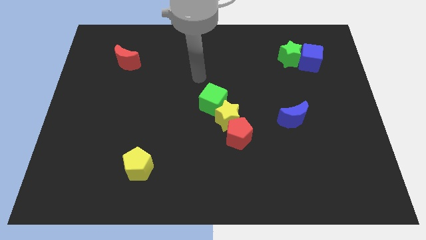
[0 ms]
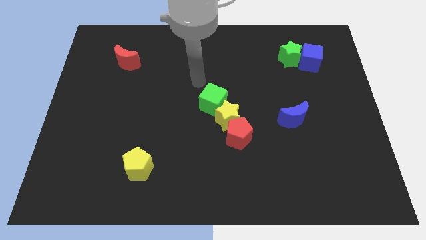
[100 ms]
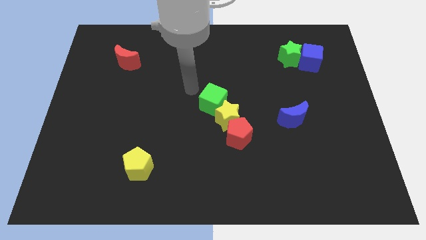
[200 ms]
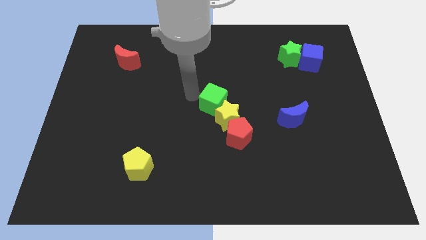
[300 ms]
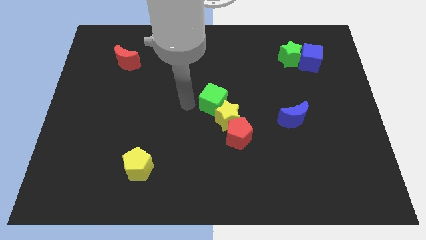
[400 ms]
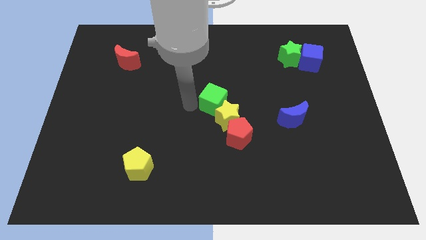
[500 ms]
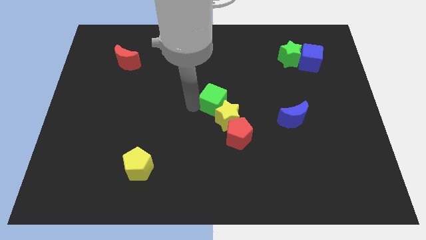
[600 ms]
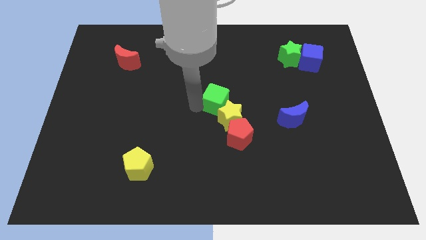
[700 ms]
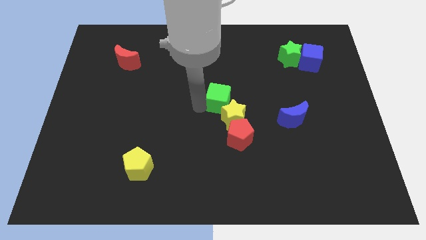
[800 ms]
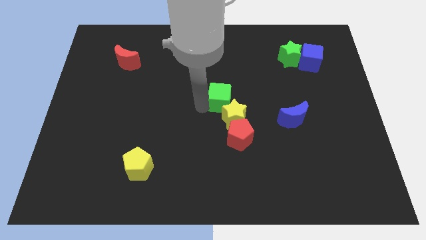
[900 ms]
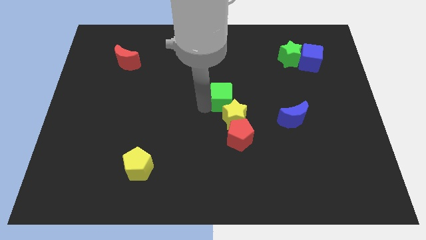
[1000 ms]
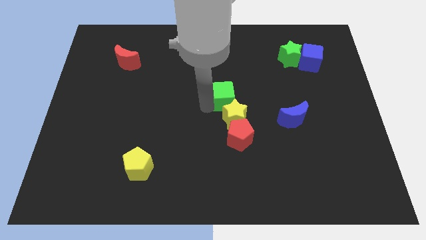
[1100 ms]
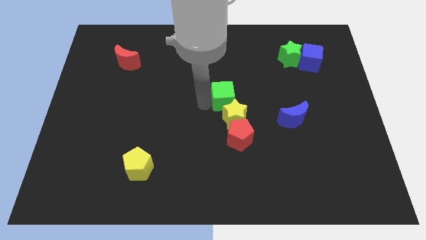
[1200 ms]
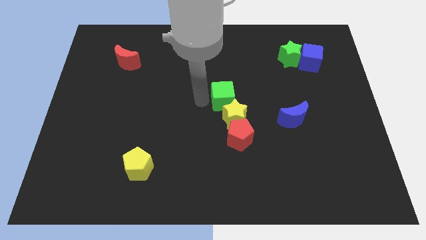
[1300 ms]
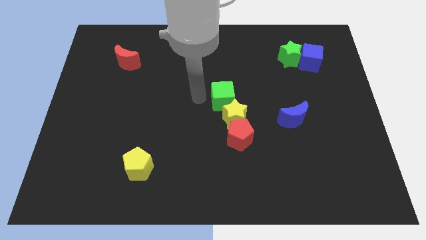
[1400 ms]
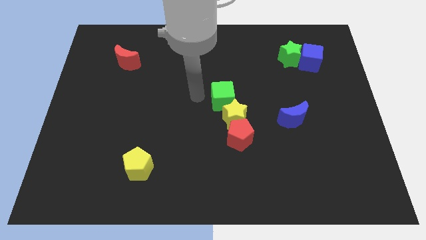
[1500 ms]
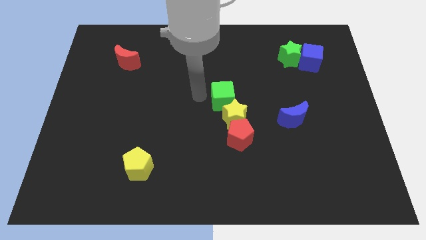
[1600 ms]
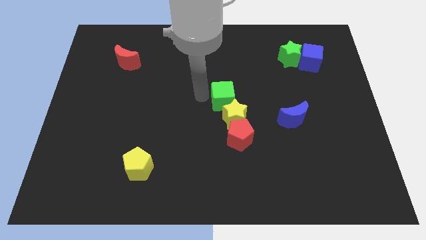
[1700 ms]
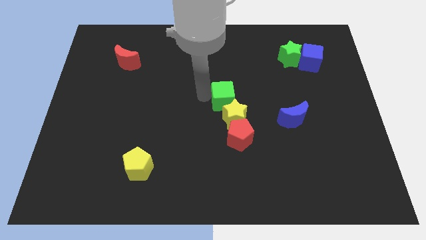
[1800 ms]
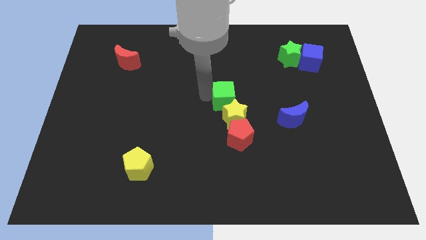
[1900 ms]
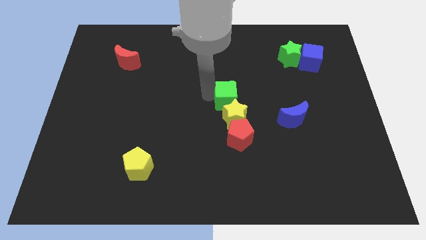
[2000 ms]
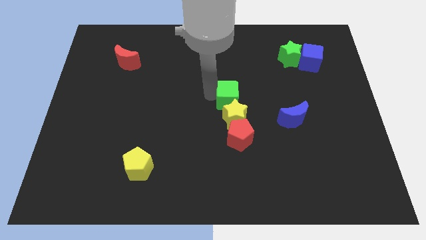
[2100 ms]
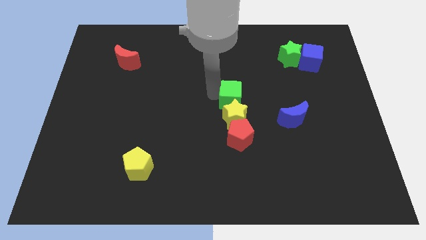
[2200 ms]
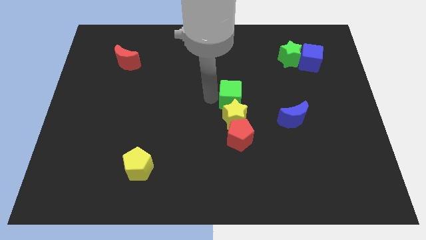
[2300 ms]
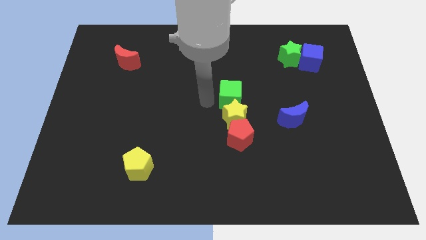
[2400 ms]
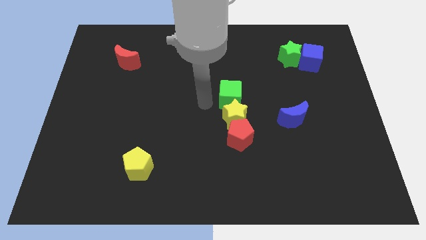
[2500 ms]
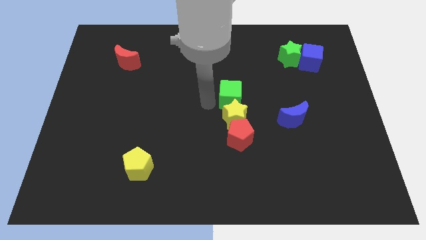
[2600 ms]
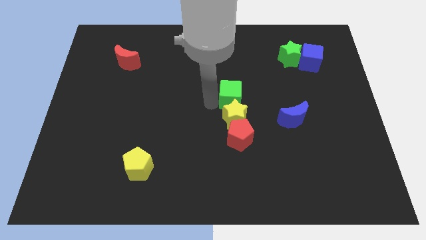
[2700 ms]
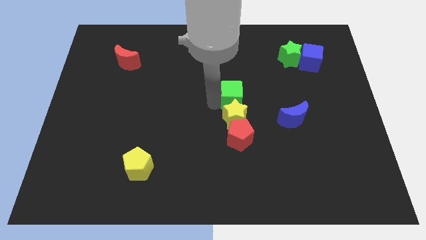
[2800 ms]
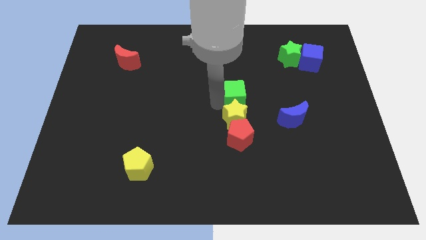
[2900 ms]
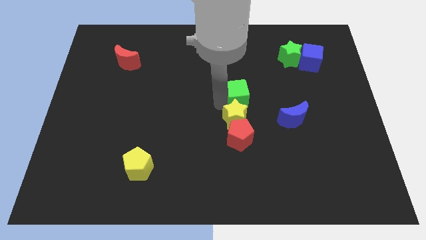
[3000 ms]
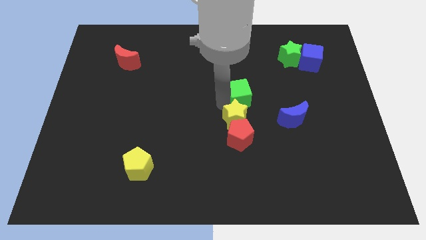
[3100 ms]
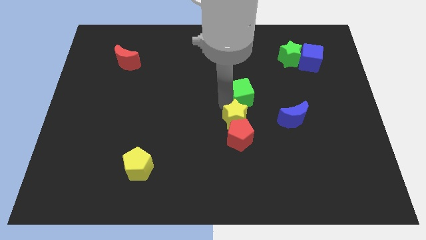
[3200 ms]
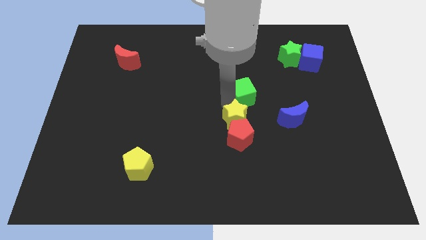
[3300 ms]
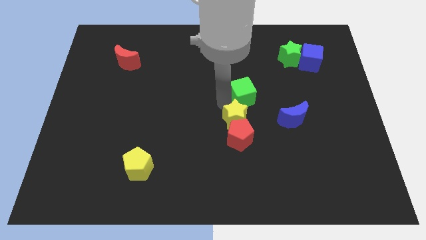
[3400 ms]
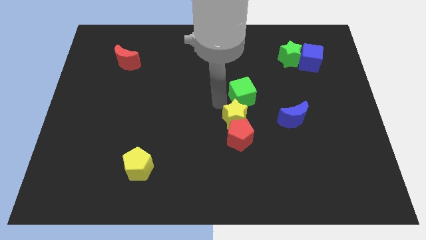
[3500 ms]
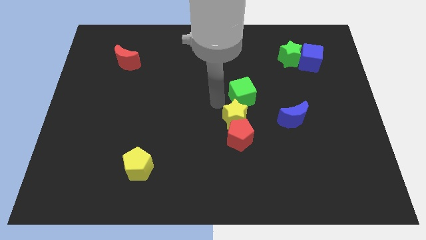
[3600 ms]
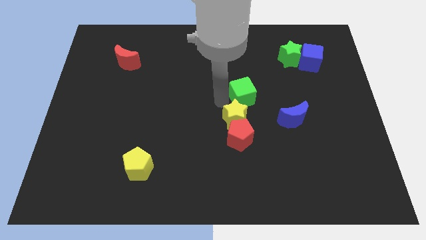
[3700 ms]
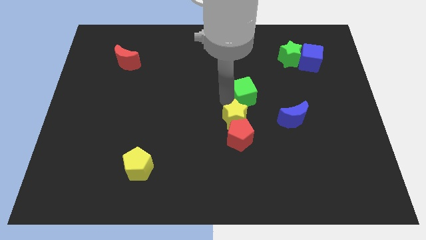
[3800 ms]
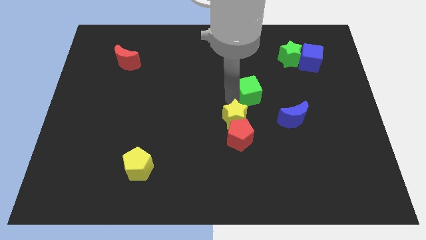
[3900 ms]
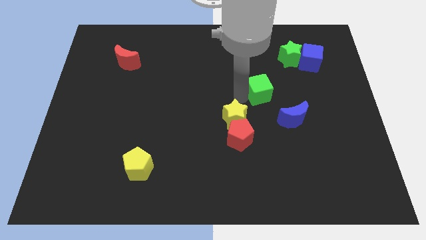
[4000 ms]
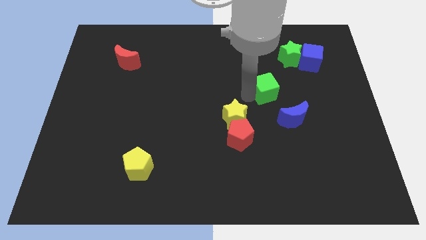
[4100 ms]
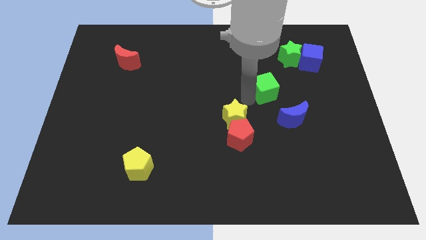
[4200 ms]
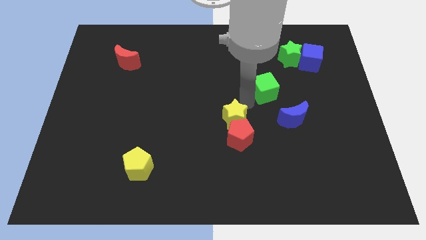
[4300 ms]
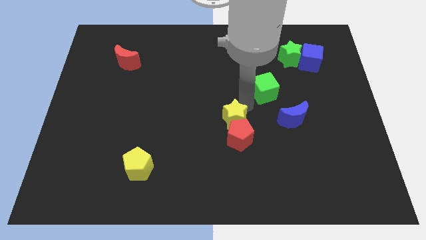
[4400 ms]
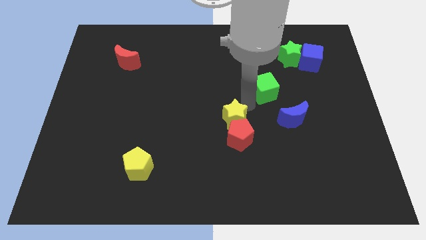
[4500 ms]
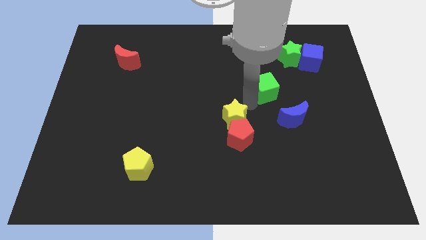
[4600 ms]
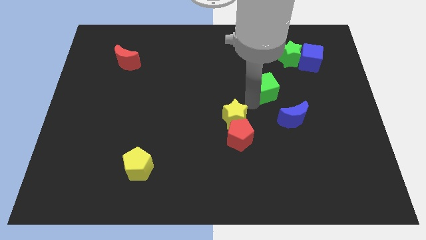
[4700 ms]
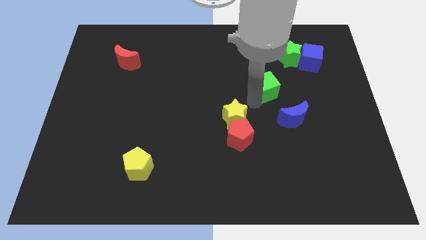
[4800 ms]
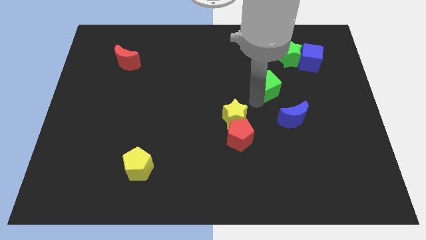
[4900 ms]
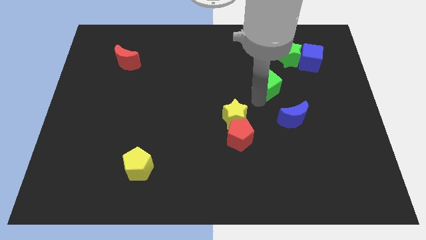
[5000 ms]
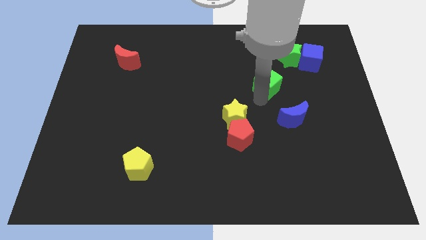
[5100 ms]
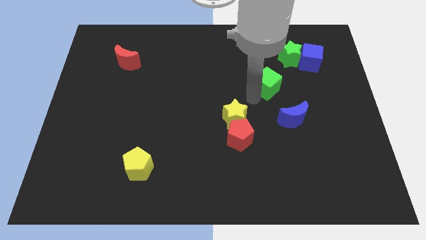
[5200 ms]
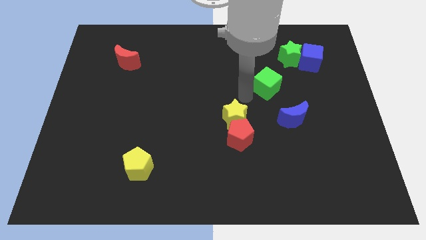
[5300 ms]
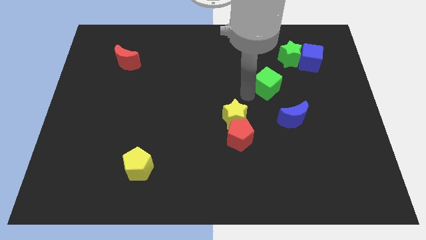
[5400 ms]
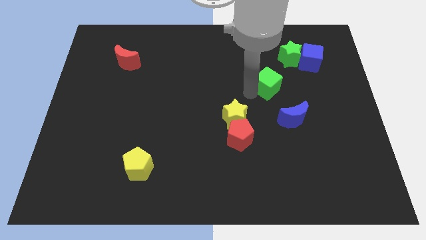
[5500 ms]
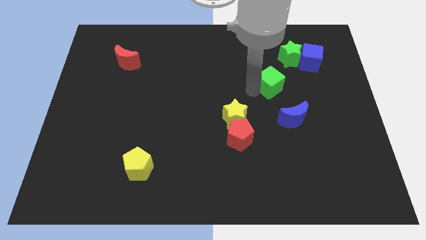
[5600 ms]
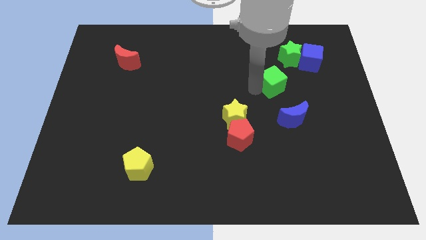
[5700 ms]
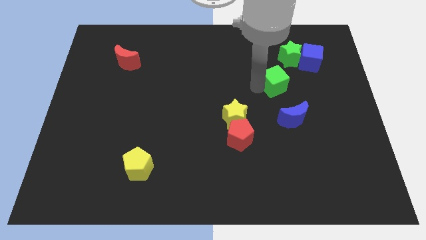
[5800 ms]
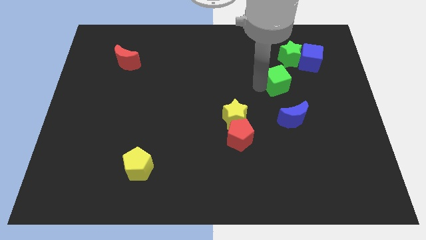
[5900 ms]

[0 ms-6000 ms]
put the green cube to the bottom left side of the blue cube

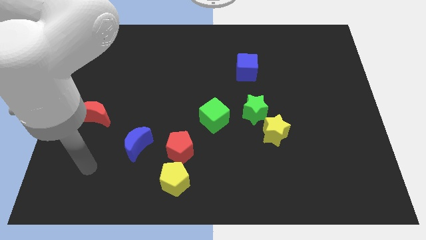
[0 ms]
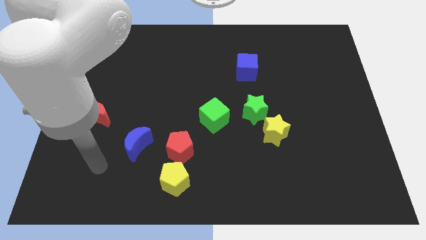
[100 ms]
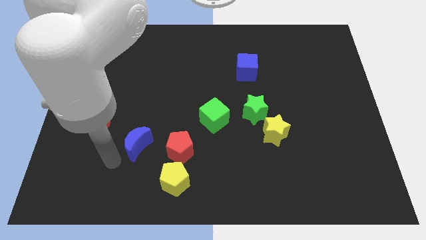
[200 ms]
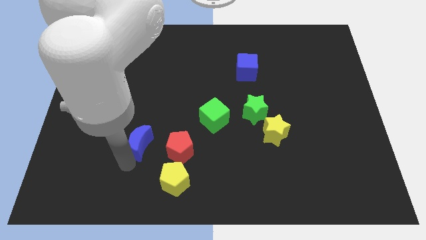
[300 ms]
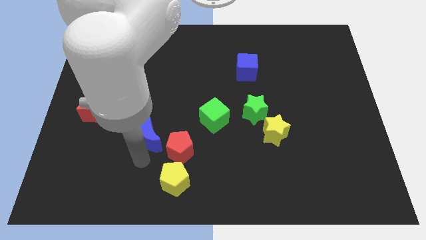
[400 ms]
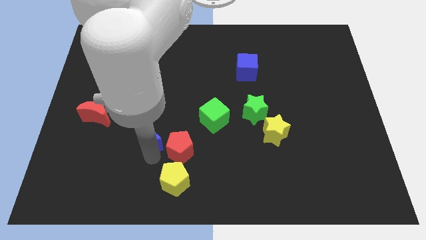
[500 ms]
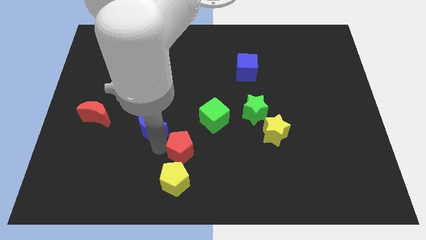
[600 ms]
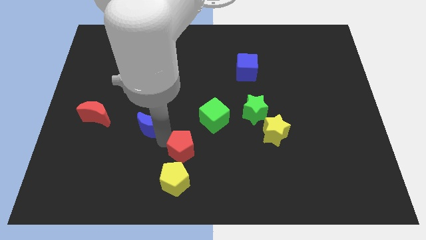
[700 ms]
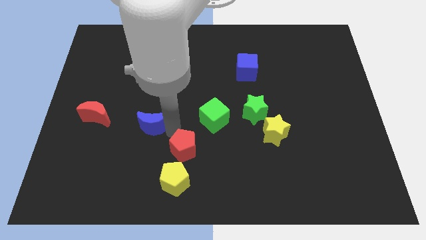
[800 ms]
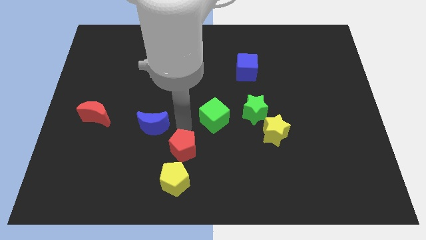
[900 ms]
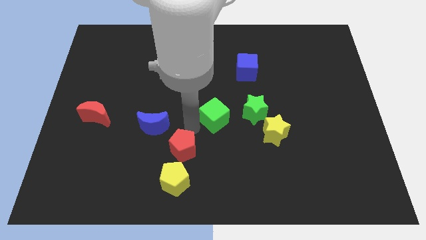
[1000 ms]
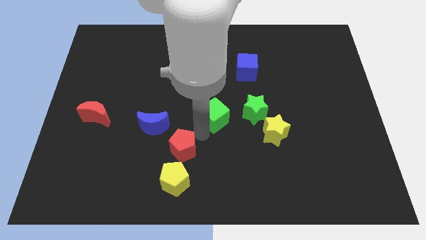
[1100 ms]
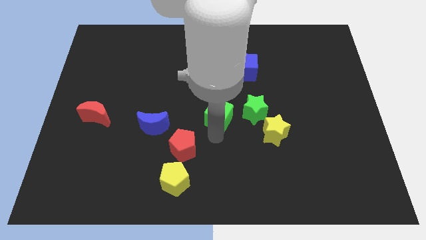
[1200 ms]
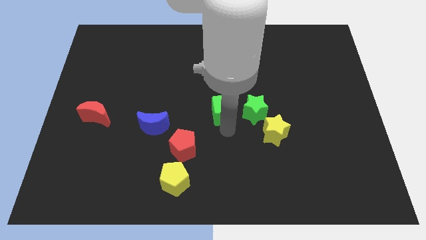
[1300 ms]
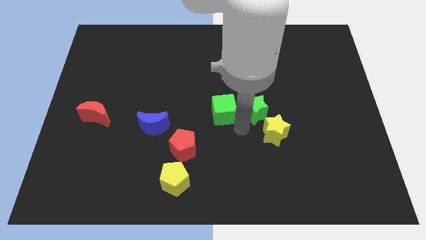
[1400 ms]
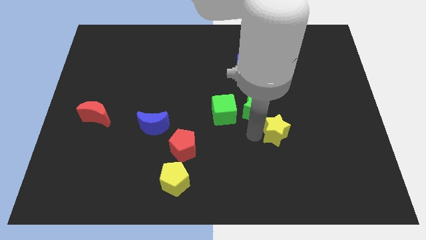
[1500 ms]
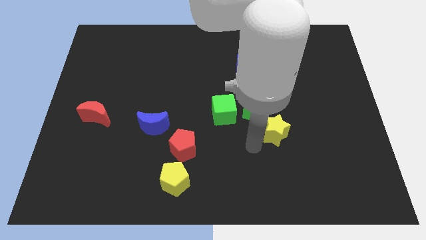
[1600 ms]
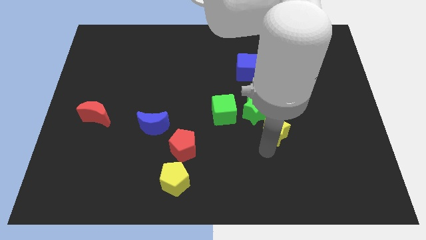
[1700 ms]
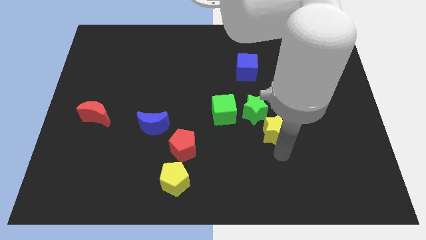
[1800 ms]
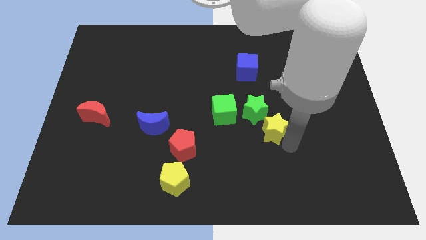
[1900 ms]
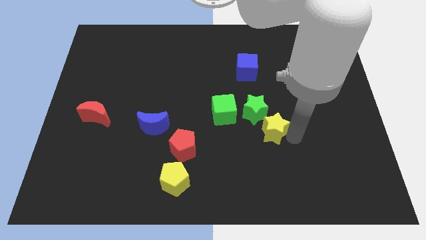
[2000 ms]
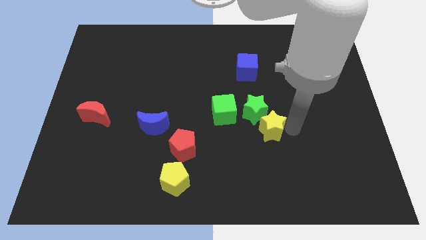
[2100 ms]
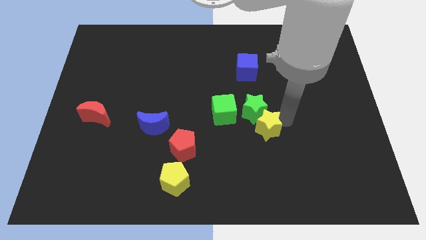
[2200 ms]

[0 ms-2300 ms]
move the green star left of the yellow star

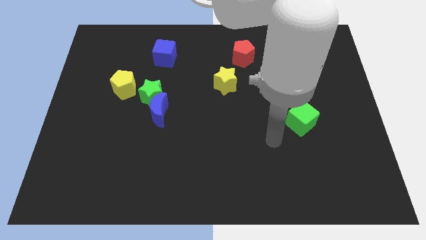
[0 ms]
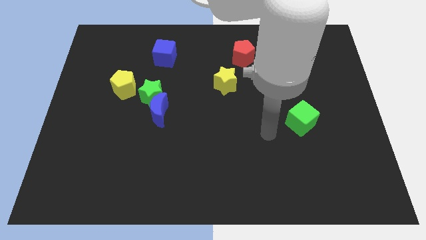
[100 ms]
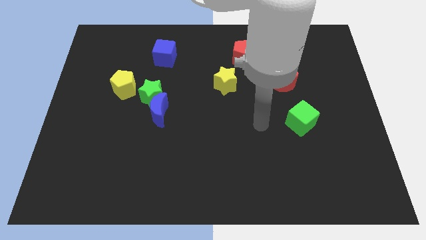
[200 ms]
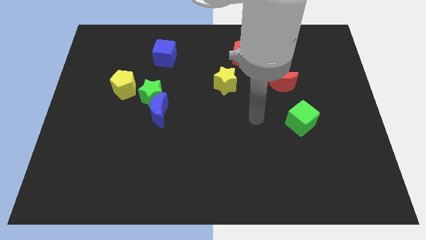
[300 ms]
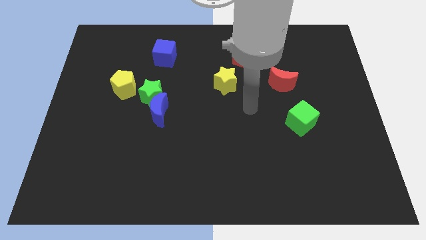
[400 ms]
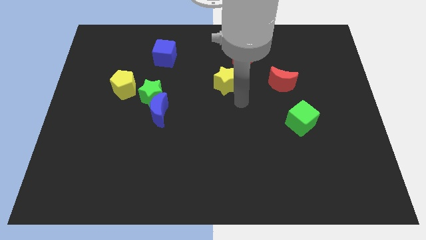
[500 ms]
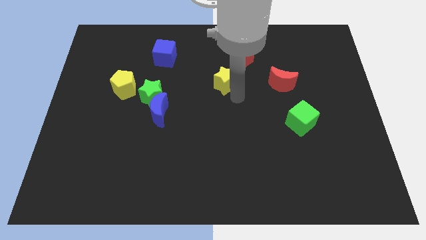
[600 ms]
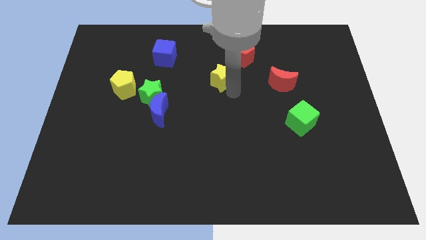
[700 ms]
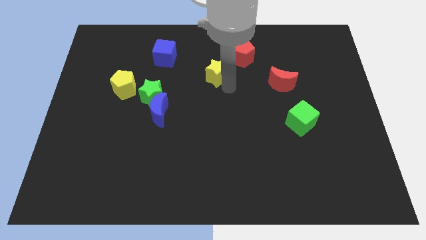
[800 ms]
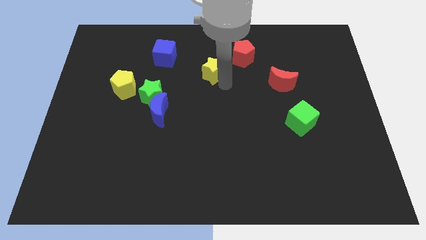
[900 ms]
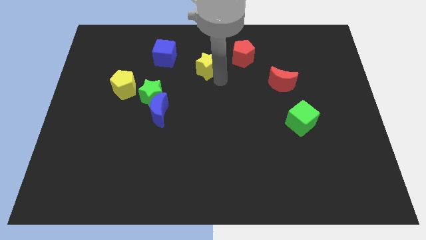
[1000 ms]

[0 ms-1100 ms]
slide the yellow star just left of the red pentagon
